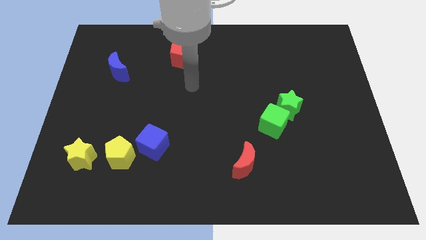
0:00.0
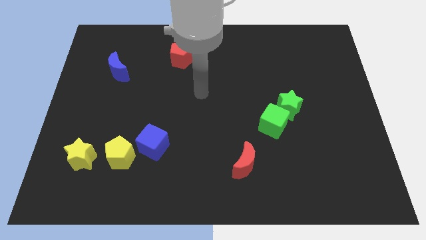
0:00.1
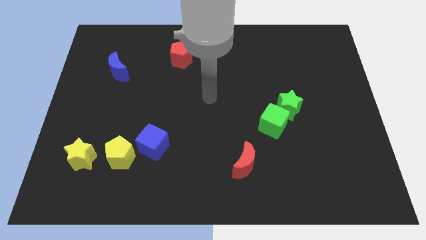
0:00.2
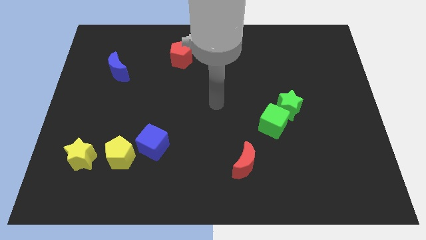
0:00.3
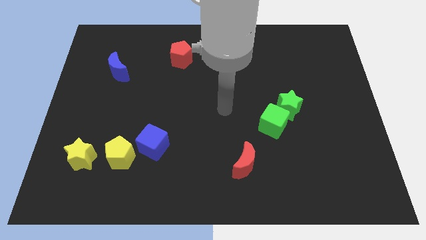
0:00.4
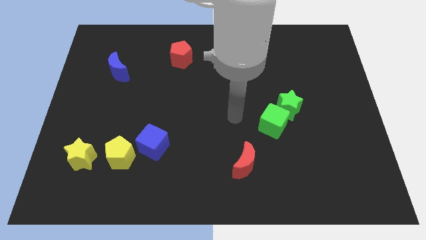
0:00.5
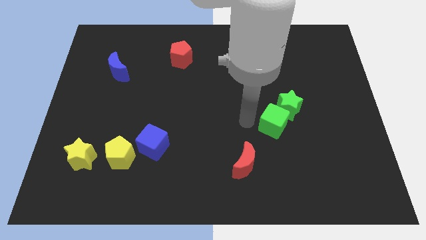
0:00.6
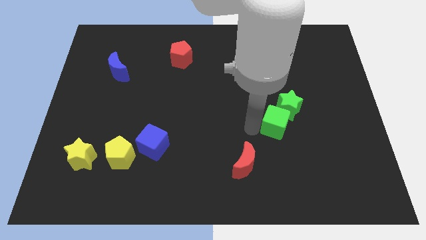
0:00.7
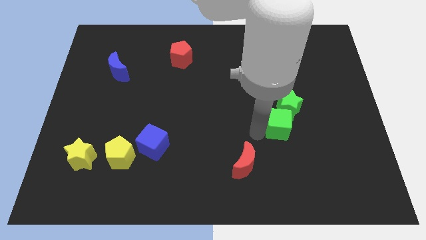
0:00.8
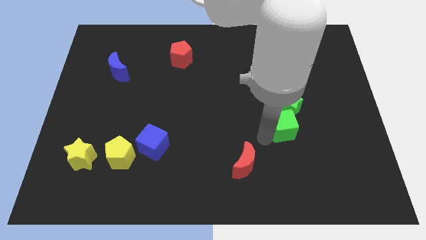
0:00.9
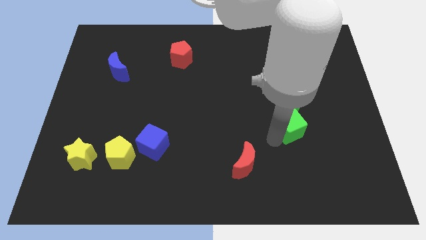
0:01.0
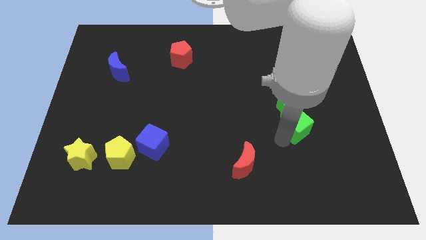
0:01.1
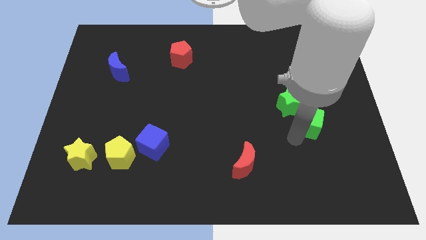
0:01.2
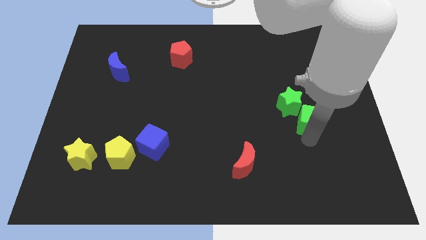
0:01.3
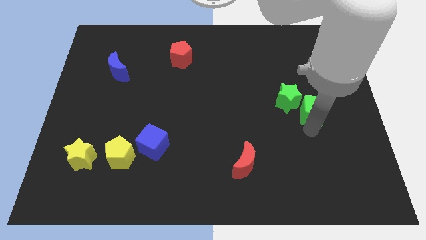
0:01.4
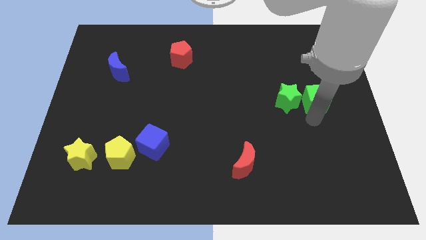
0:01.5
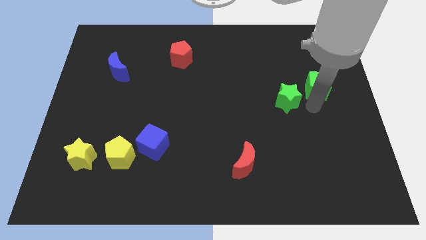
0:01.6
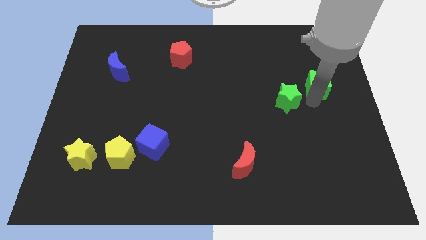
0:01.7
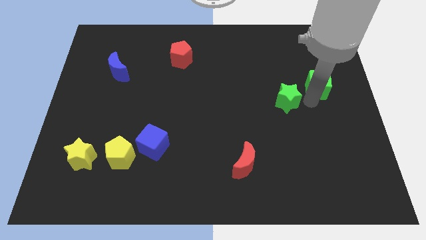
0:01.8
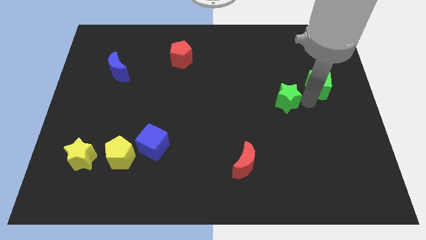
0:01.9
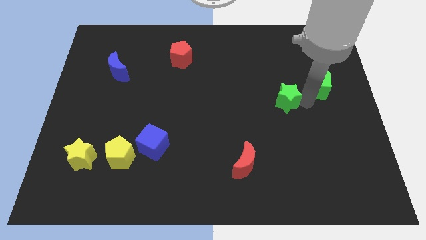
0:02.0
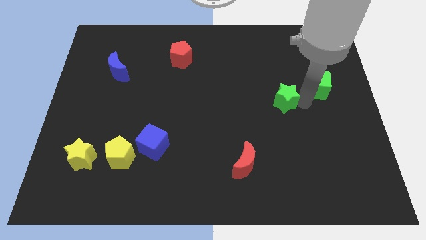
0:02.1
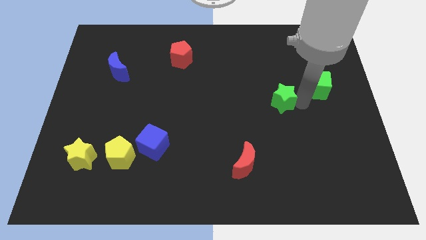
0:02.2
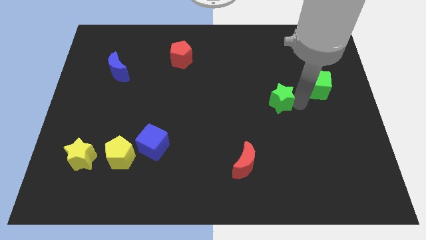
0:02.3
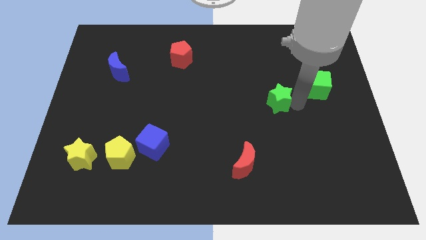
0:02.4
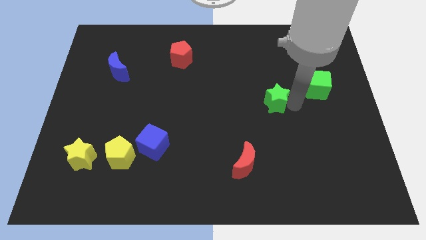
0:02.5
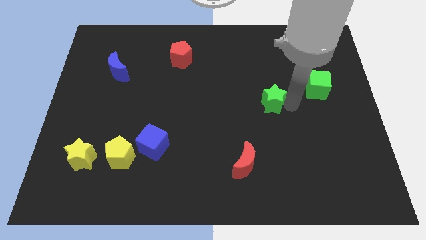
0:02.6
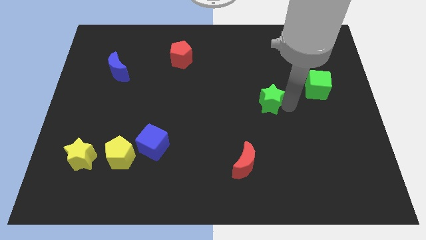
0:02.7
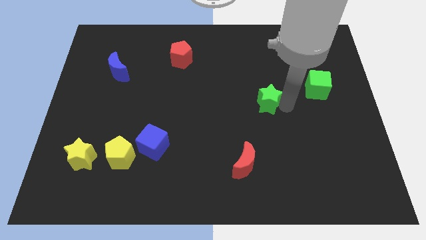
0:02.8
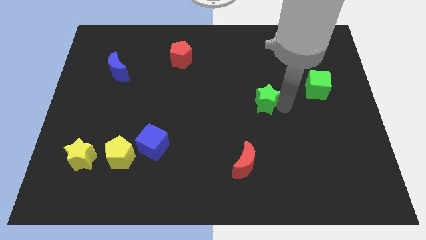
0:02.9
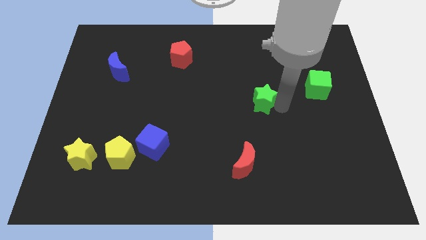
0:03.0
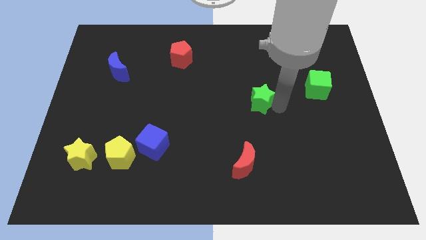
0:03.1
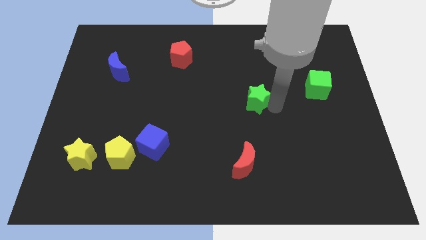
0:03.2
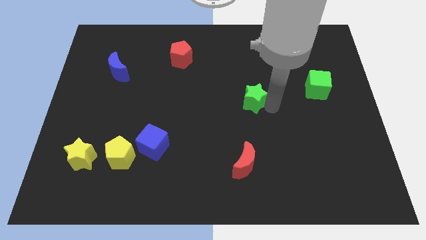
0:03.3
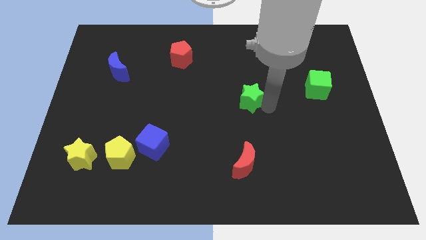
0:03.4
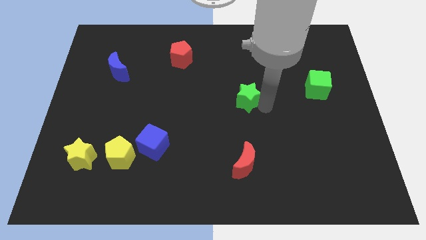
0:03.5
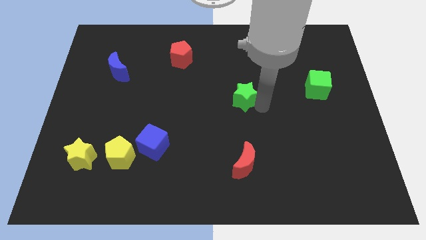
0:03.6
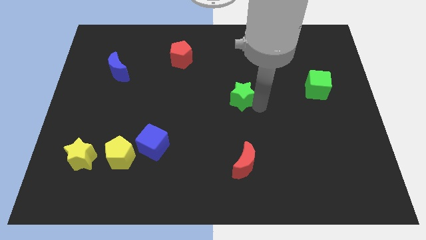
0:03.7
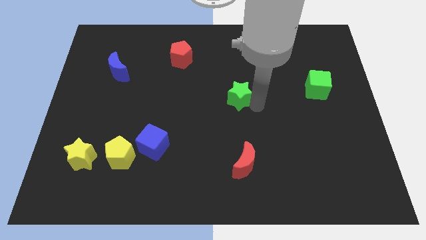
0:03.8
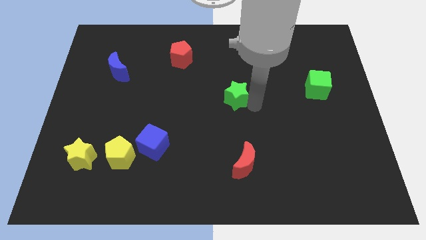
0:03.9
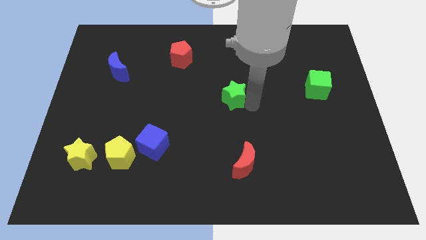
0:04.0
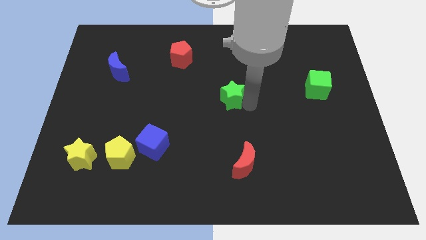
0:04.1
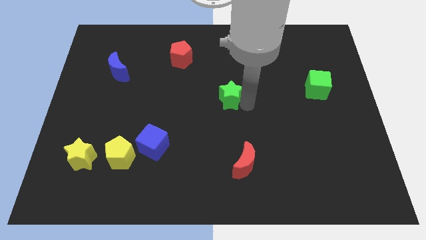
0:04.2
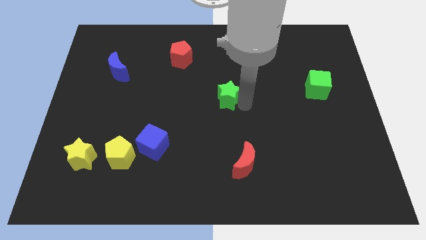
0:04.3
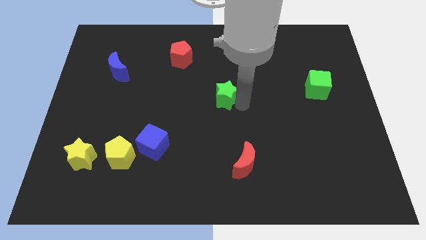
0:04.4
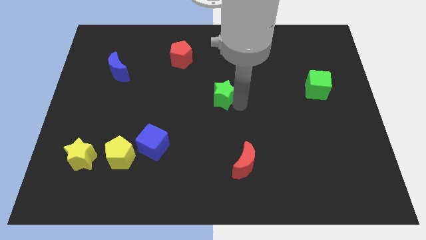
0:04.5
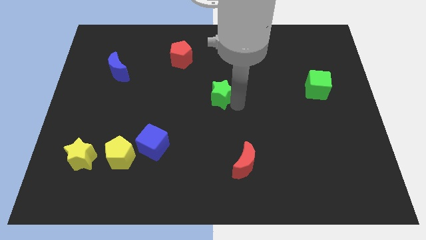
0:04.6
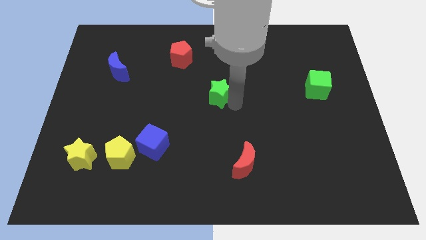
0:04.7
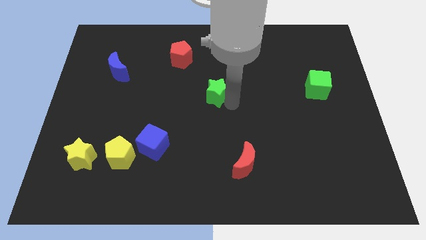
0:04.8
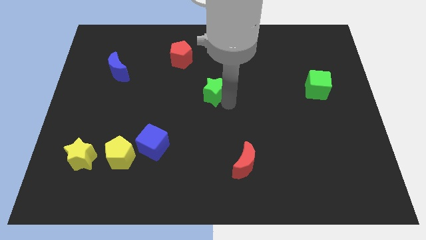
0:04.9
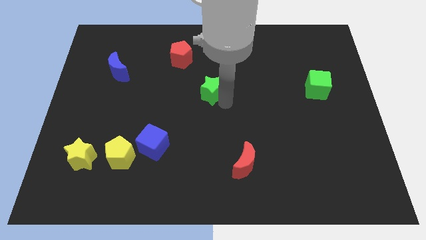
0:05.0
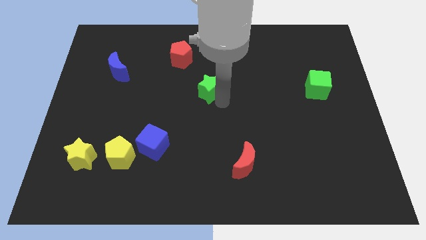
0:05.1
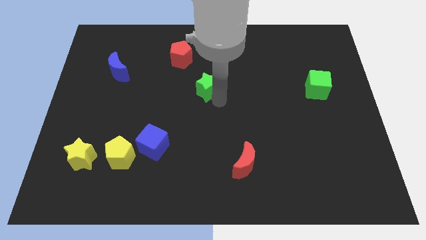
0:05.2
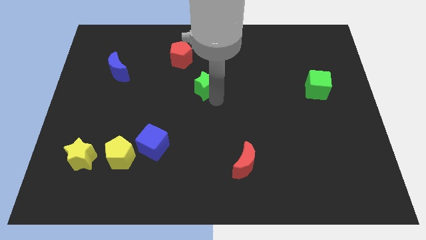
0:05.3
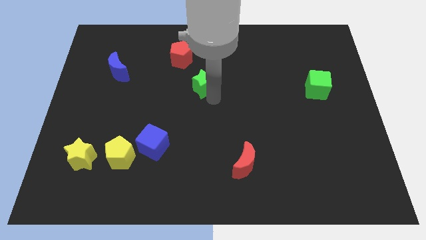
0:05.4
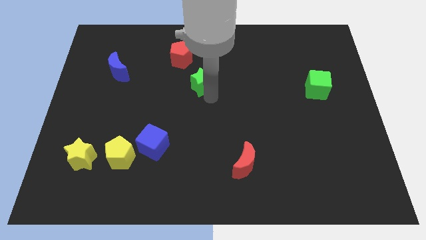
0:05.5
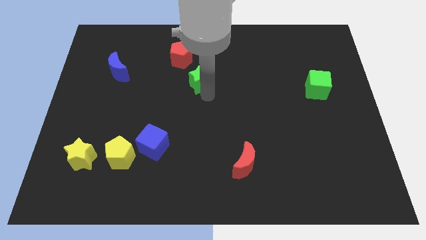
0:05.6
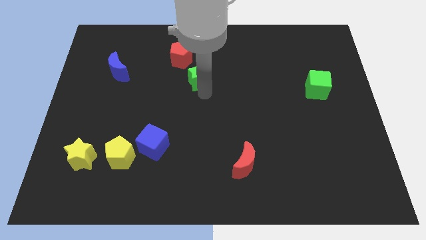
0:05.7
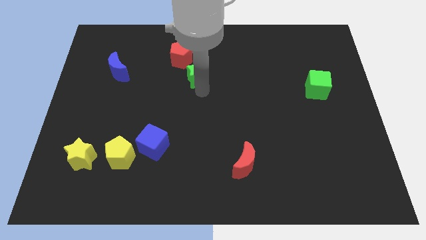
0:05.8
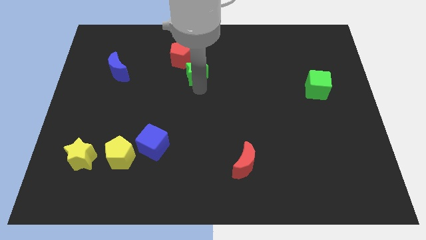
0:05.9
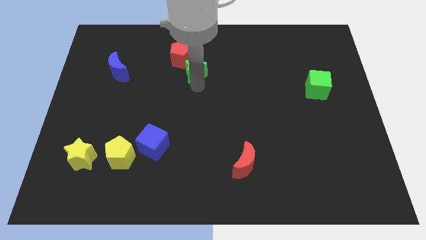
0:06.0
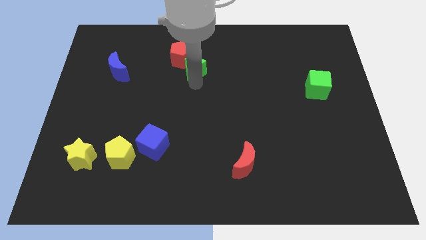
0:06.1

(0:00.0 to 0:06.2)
slide the green star towards the red pentagon

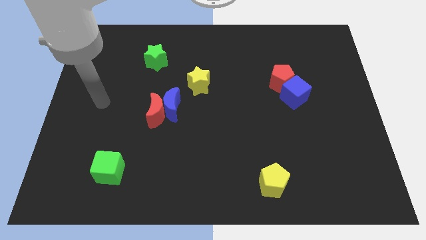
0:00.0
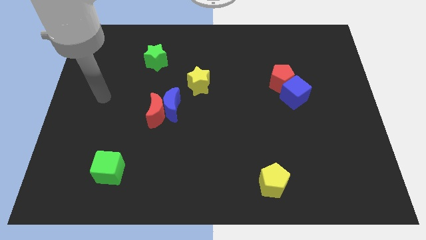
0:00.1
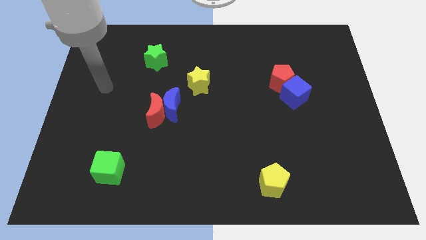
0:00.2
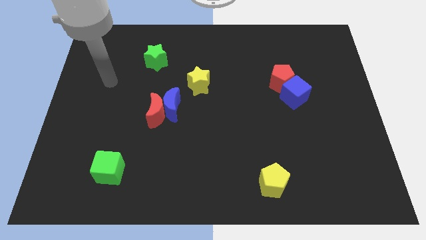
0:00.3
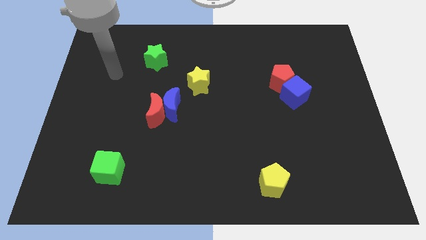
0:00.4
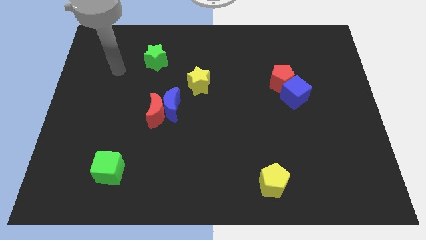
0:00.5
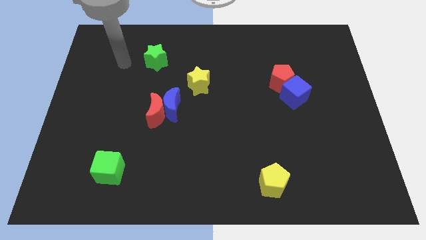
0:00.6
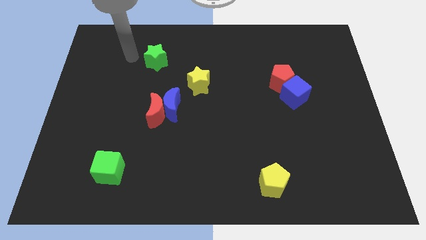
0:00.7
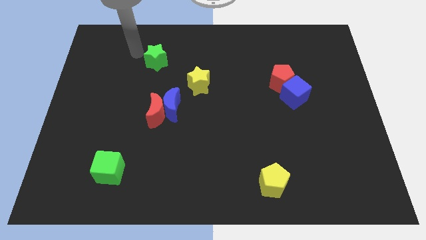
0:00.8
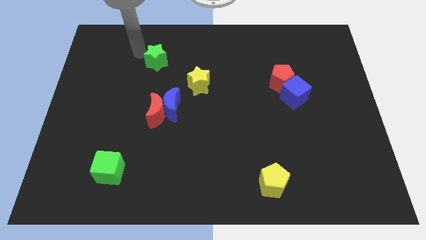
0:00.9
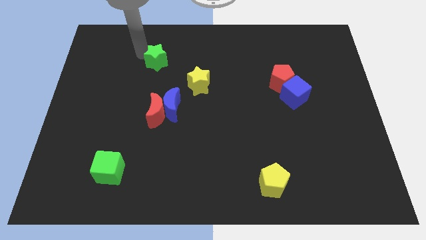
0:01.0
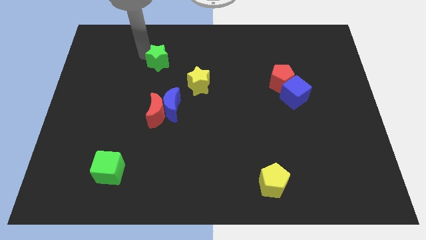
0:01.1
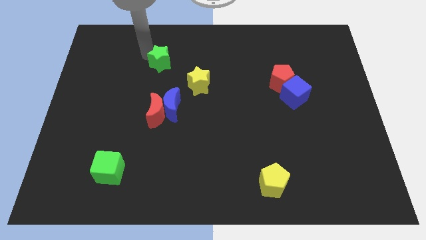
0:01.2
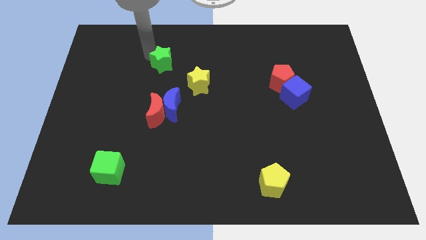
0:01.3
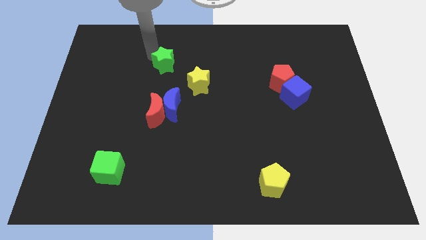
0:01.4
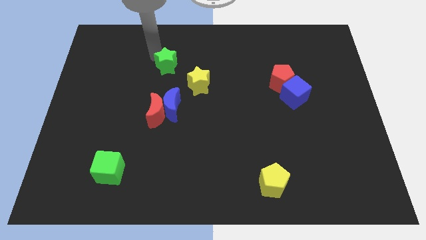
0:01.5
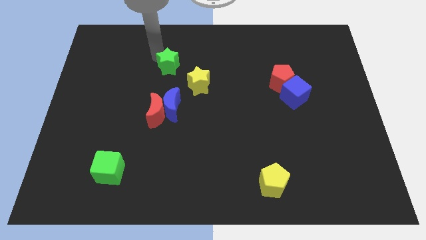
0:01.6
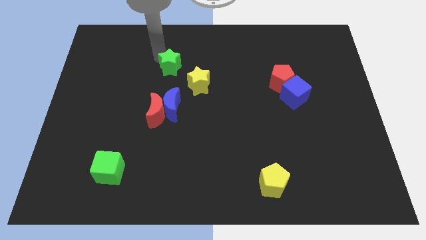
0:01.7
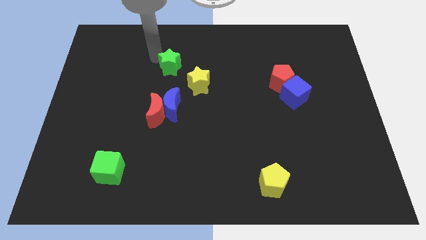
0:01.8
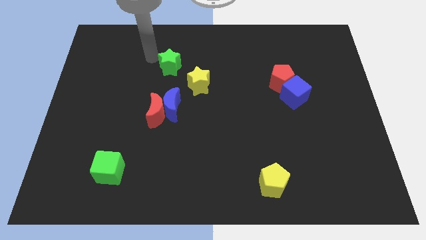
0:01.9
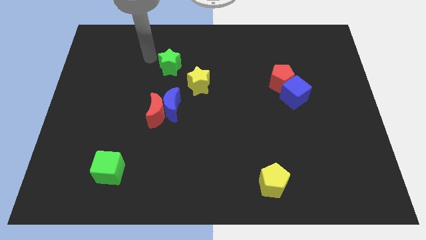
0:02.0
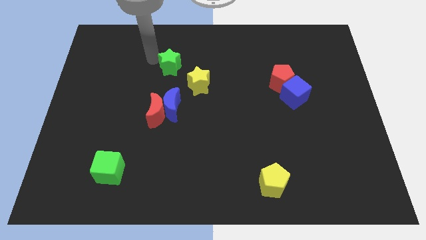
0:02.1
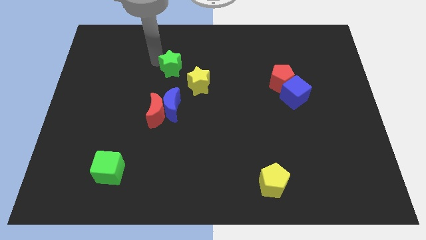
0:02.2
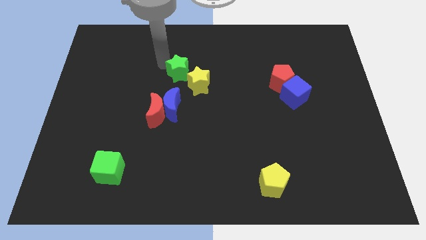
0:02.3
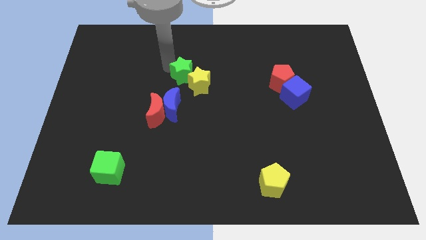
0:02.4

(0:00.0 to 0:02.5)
move the green star to the yellow star
